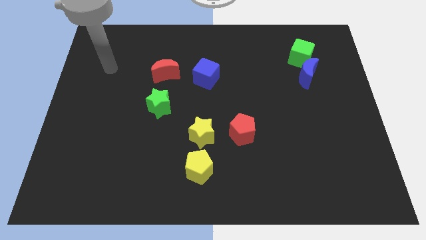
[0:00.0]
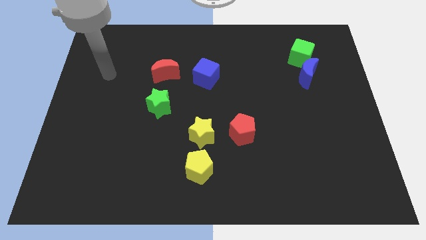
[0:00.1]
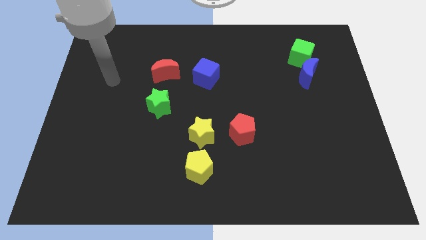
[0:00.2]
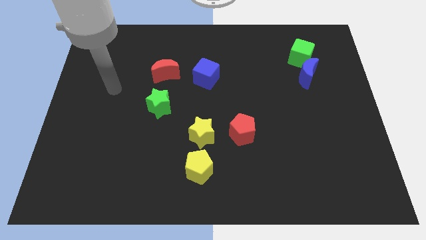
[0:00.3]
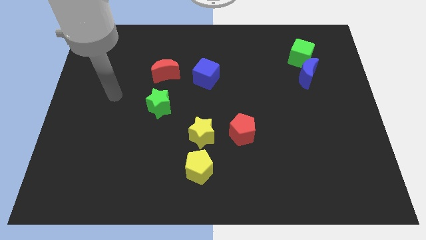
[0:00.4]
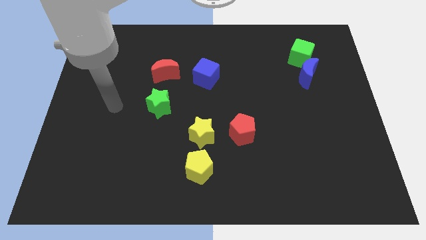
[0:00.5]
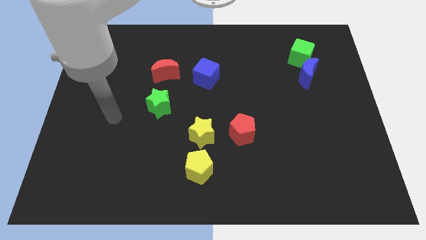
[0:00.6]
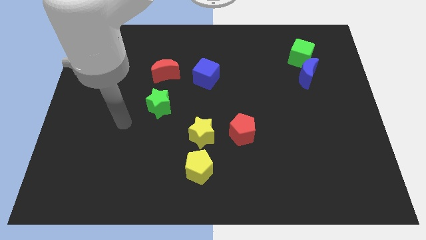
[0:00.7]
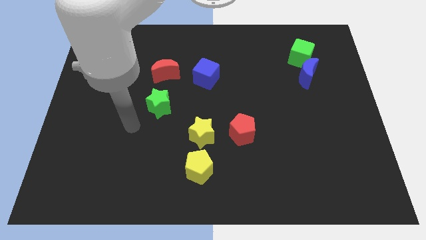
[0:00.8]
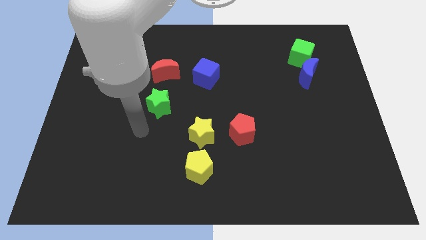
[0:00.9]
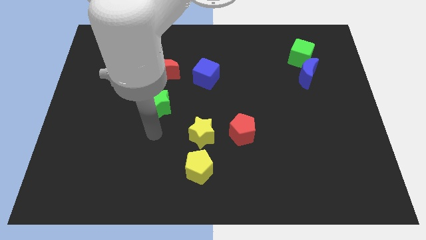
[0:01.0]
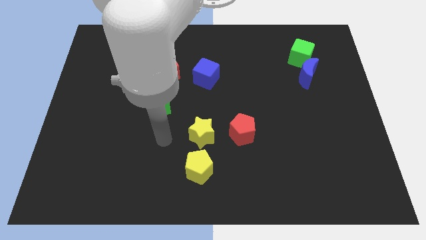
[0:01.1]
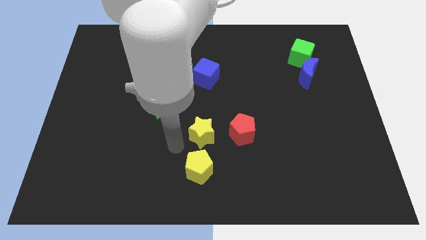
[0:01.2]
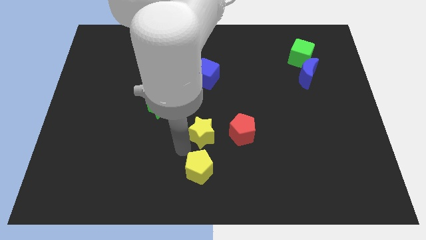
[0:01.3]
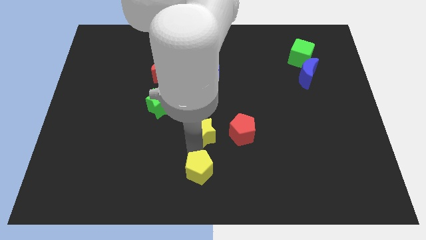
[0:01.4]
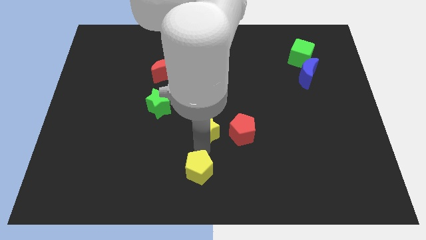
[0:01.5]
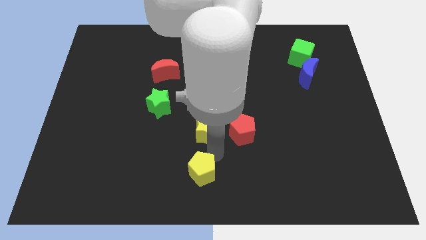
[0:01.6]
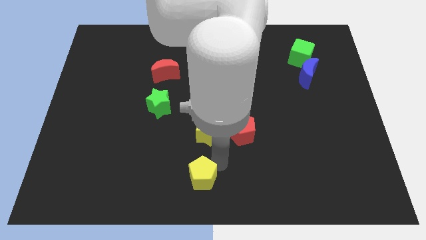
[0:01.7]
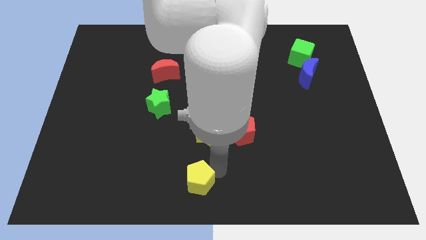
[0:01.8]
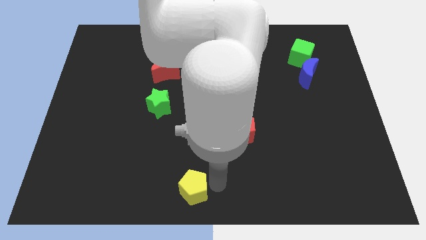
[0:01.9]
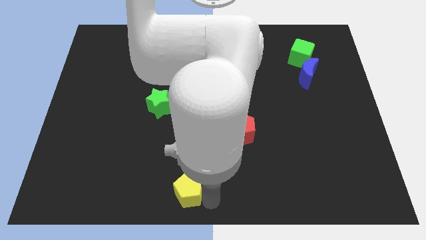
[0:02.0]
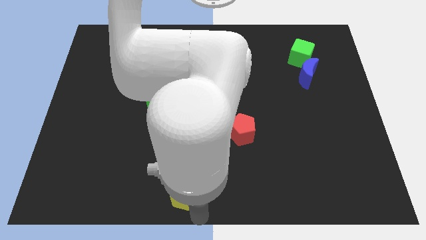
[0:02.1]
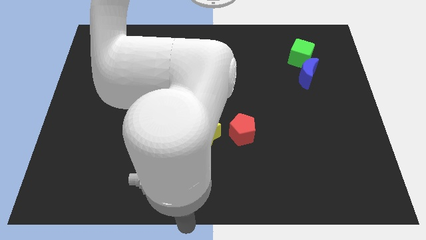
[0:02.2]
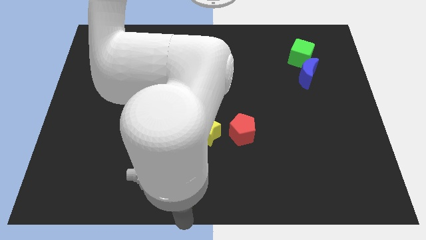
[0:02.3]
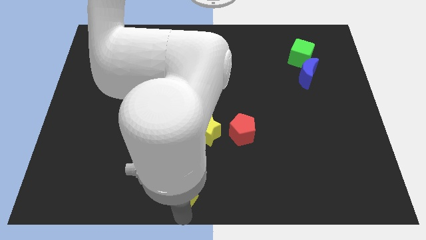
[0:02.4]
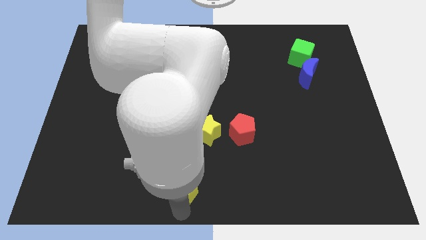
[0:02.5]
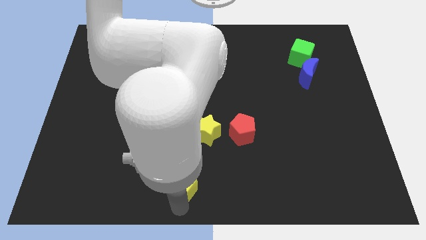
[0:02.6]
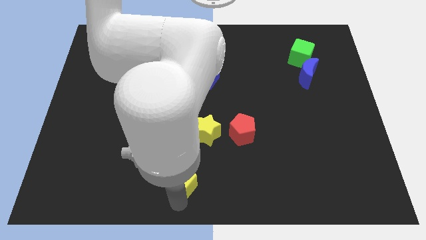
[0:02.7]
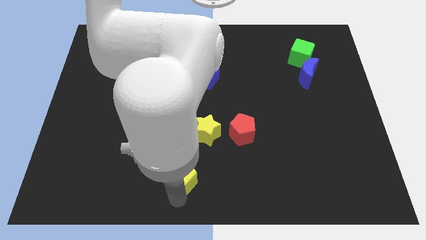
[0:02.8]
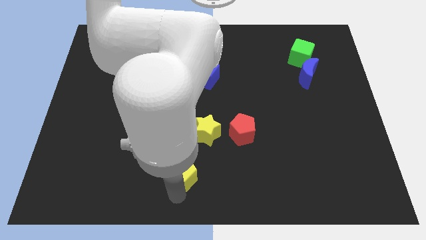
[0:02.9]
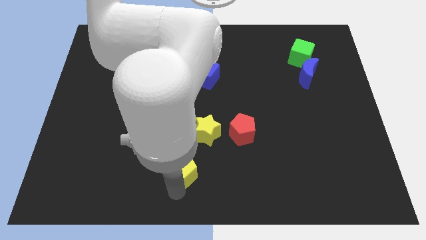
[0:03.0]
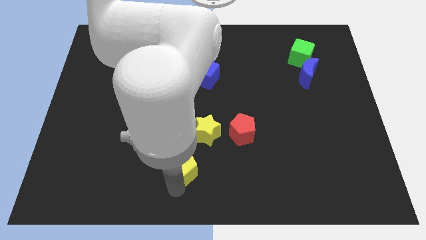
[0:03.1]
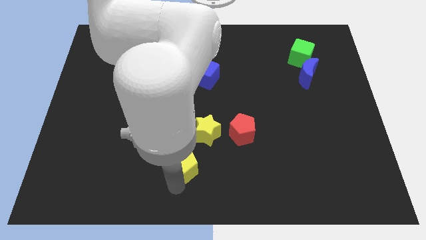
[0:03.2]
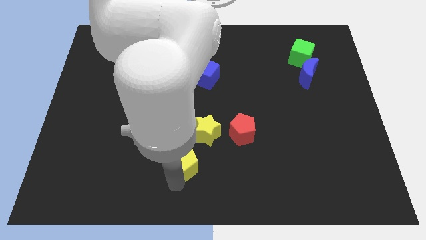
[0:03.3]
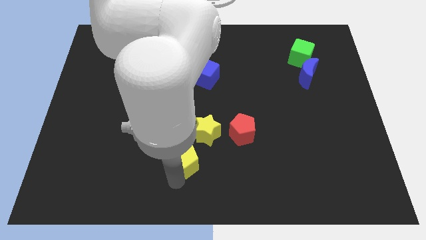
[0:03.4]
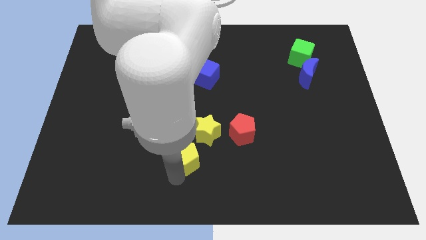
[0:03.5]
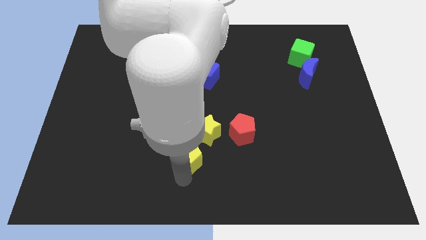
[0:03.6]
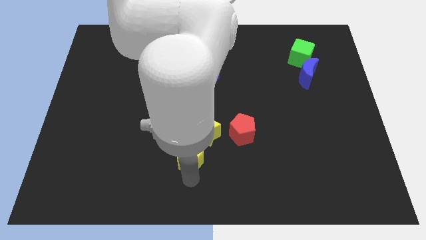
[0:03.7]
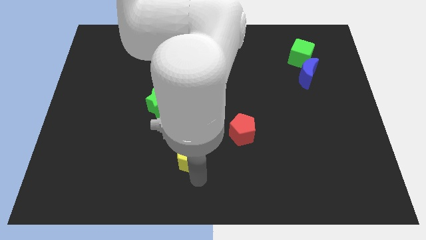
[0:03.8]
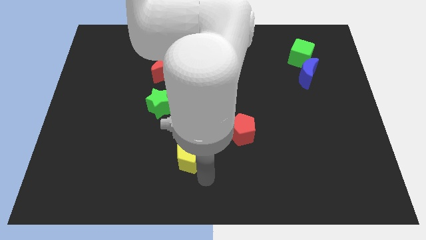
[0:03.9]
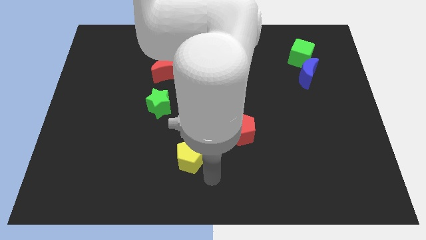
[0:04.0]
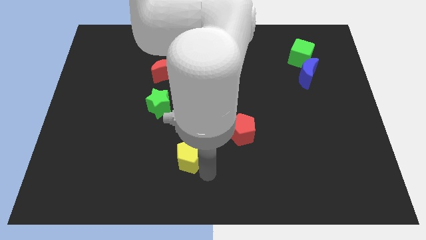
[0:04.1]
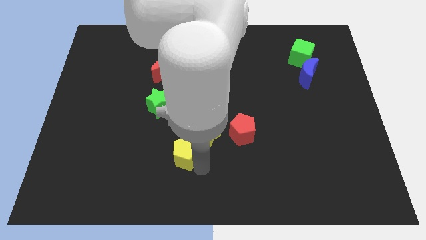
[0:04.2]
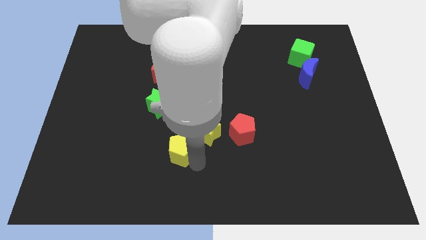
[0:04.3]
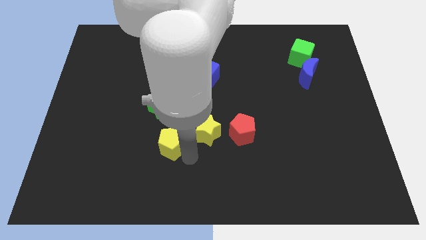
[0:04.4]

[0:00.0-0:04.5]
slightly push the yellow pentagon upwards and left diagonally

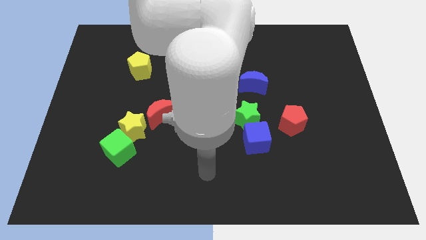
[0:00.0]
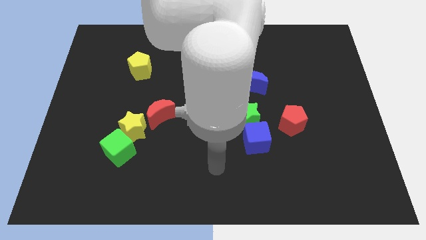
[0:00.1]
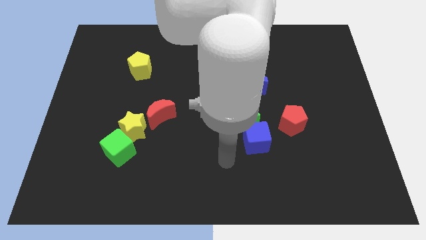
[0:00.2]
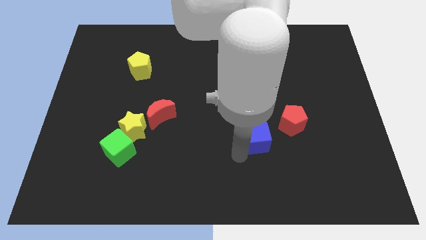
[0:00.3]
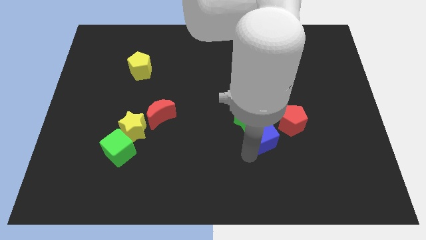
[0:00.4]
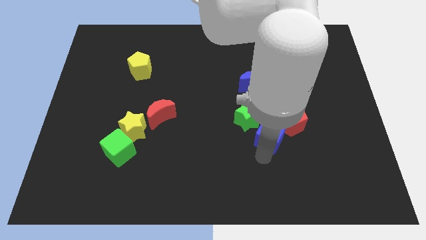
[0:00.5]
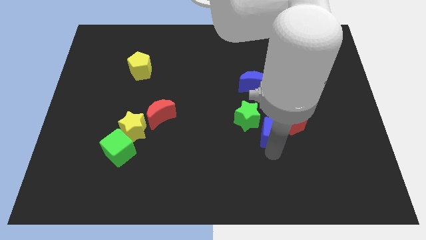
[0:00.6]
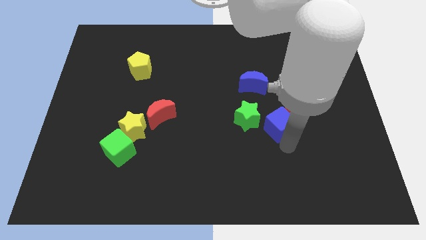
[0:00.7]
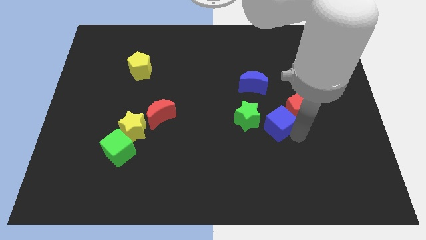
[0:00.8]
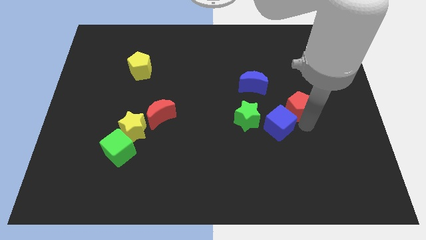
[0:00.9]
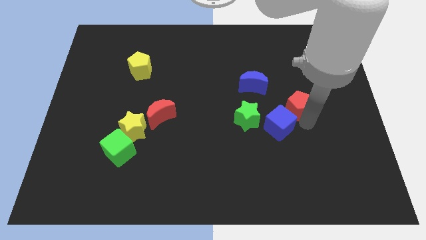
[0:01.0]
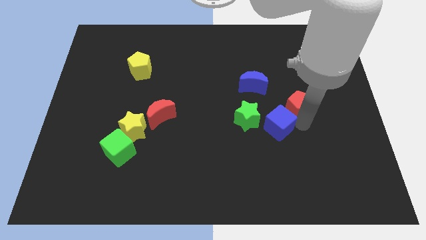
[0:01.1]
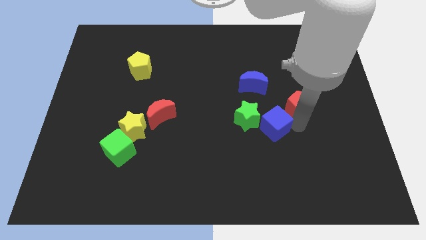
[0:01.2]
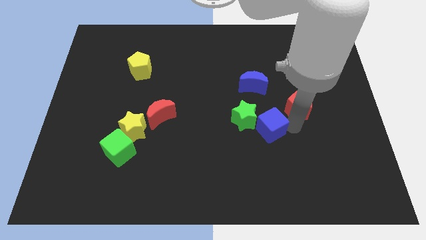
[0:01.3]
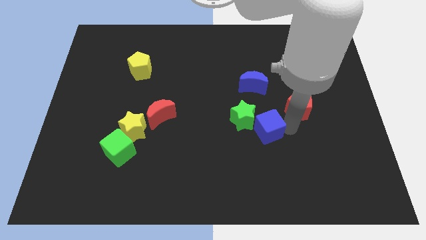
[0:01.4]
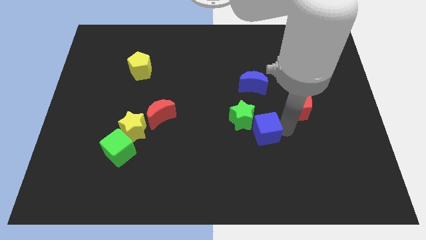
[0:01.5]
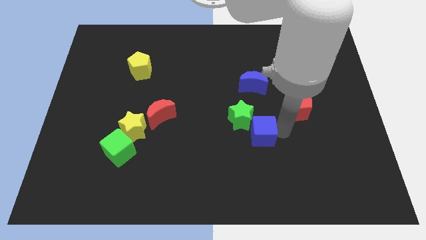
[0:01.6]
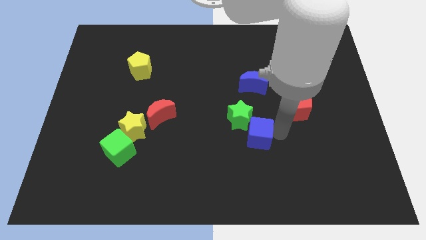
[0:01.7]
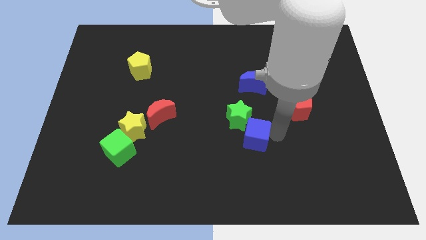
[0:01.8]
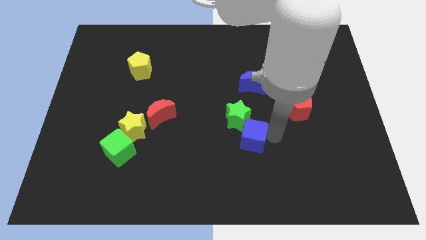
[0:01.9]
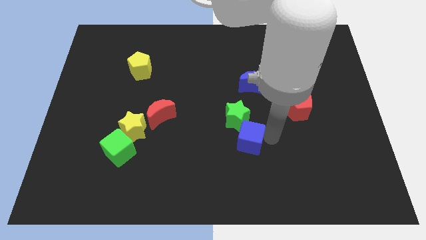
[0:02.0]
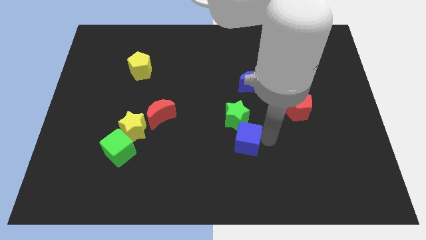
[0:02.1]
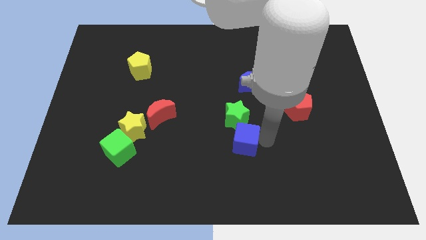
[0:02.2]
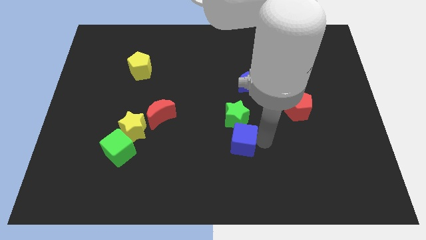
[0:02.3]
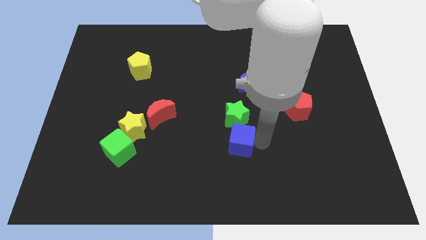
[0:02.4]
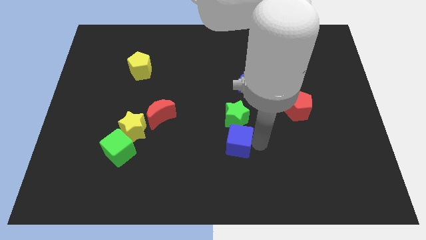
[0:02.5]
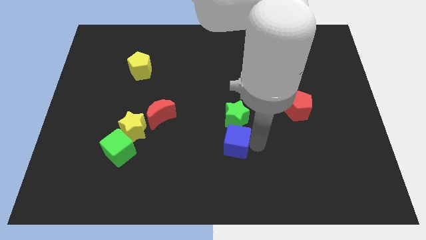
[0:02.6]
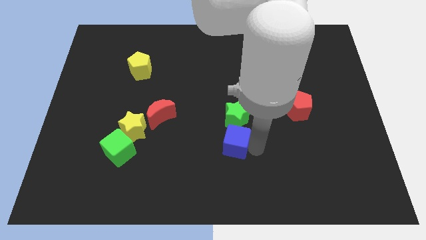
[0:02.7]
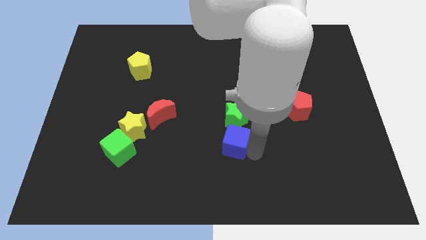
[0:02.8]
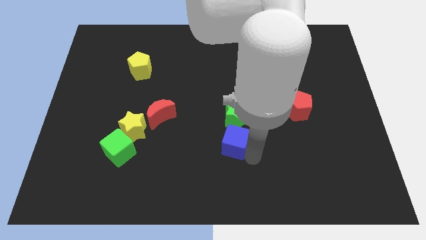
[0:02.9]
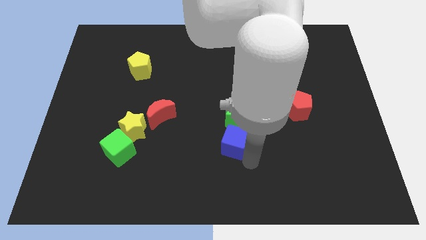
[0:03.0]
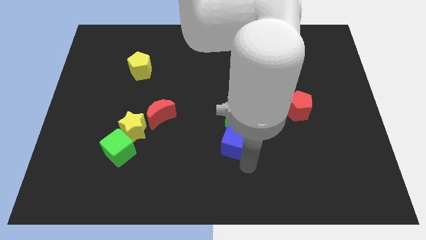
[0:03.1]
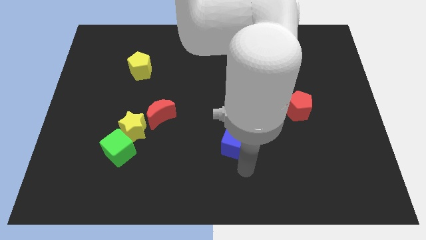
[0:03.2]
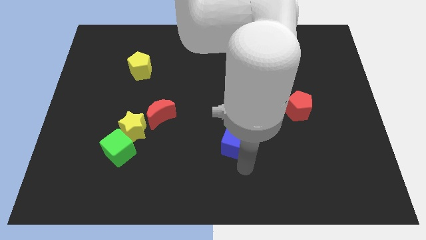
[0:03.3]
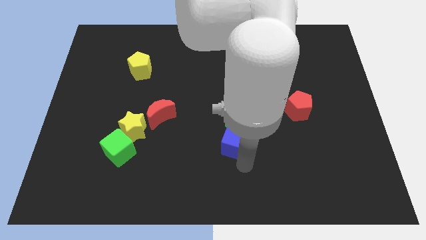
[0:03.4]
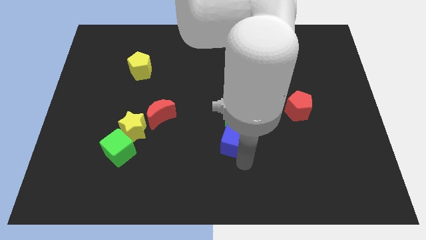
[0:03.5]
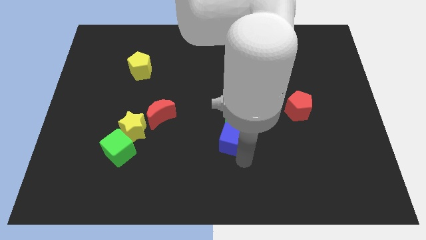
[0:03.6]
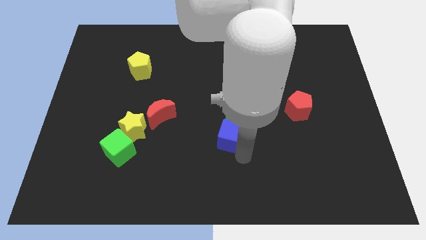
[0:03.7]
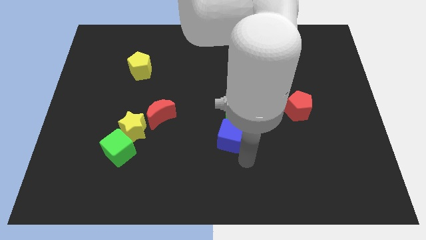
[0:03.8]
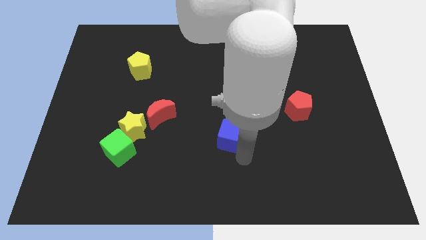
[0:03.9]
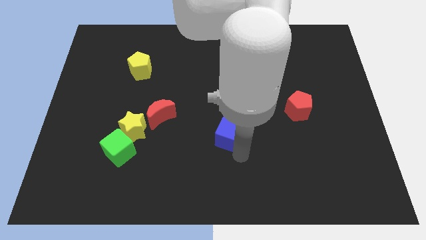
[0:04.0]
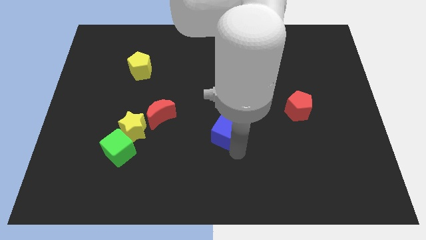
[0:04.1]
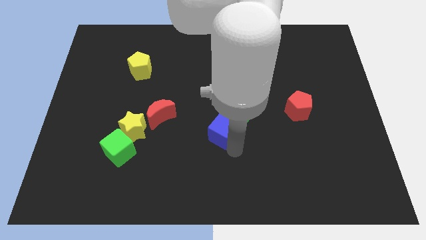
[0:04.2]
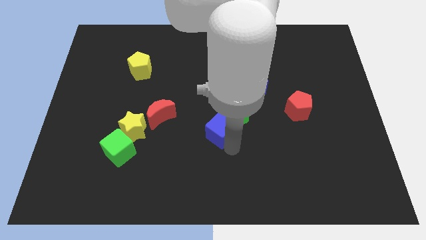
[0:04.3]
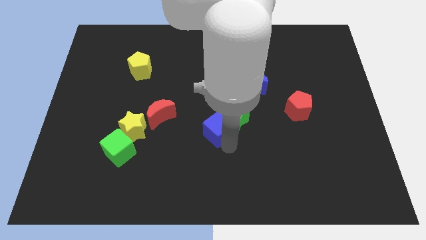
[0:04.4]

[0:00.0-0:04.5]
push the blue cube a little diagonally upwards and left
